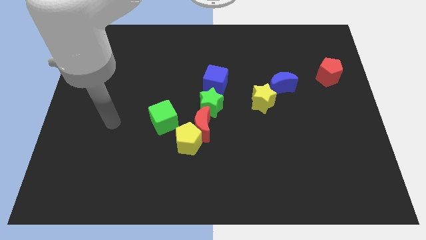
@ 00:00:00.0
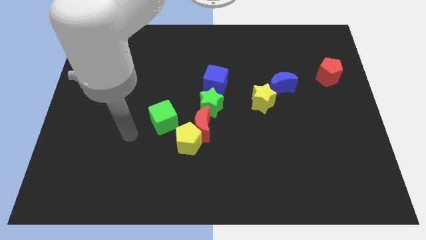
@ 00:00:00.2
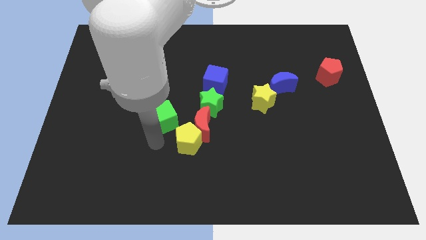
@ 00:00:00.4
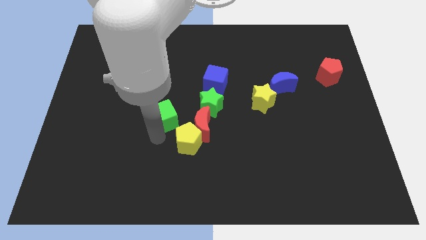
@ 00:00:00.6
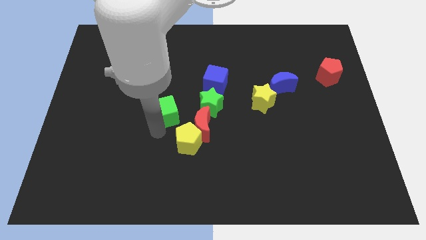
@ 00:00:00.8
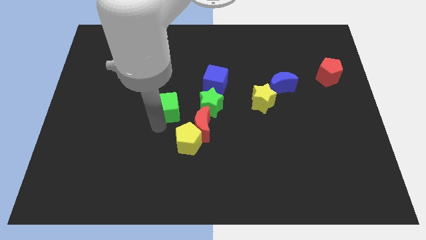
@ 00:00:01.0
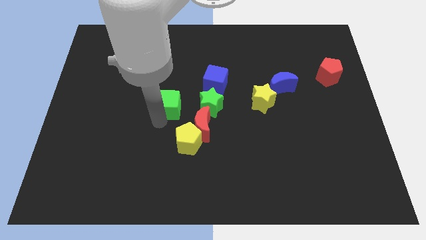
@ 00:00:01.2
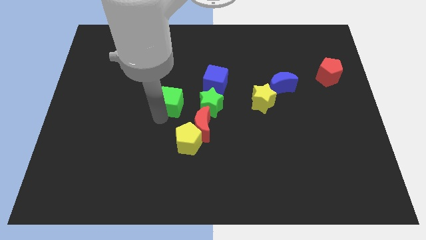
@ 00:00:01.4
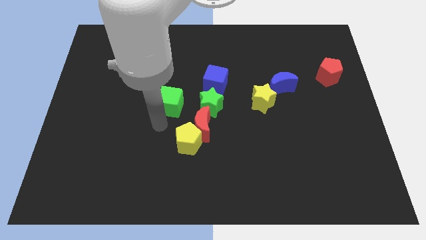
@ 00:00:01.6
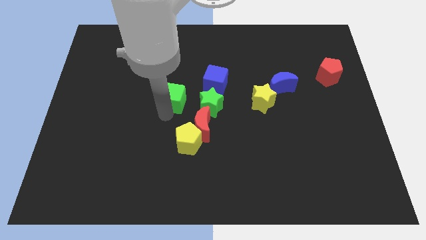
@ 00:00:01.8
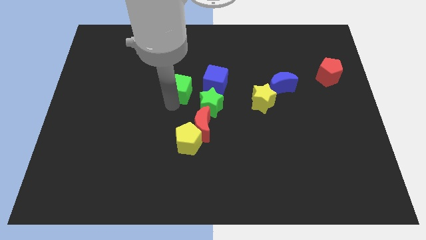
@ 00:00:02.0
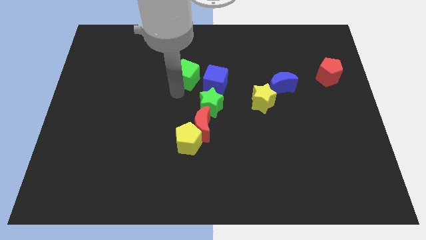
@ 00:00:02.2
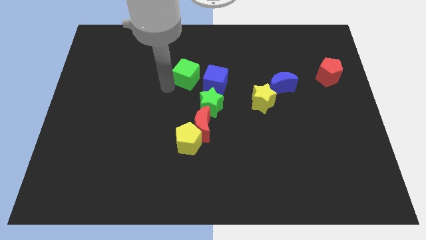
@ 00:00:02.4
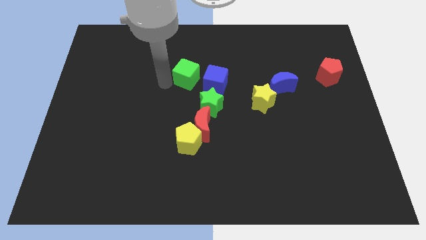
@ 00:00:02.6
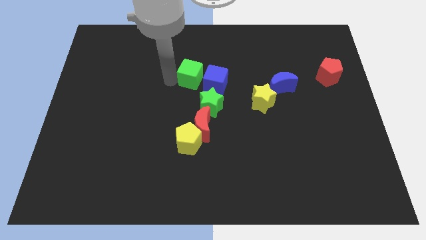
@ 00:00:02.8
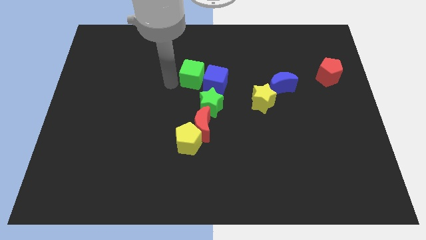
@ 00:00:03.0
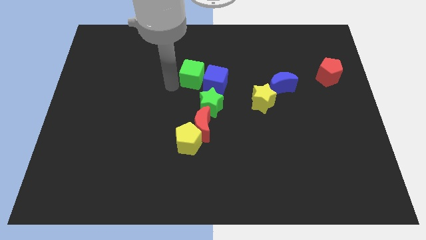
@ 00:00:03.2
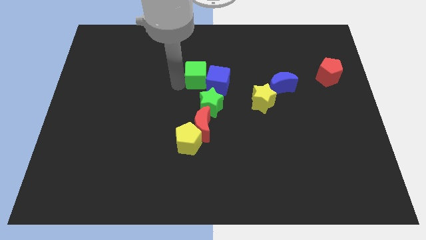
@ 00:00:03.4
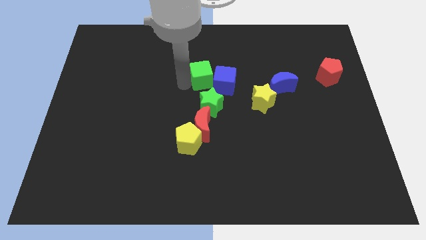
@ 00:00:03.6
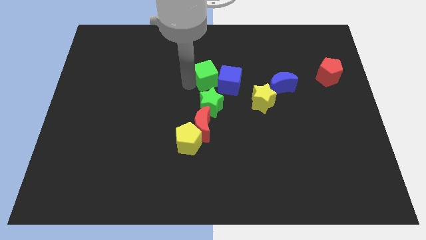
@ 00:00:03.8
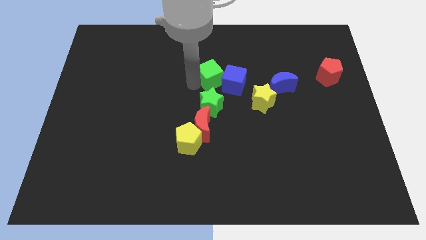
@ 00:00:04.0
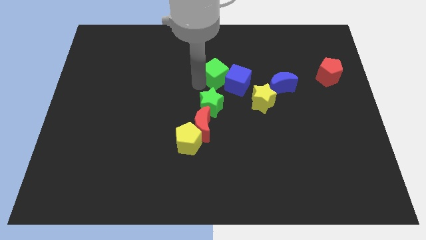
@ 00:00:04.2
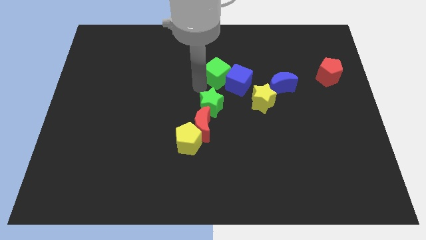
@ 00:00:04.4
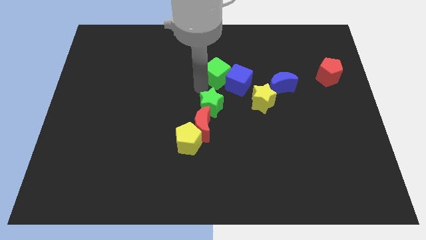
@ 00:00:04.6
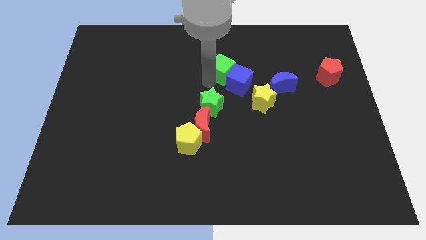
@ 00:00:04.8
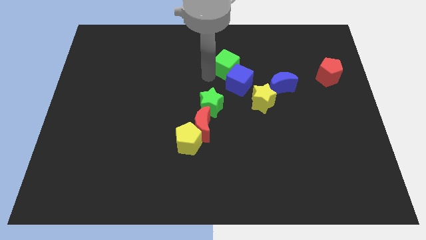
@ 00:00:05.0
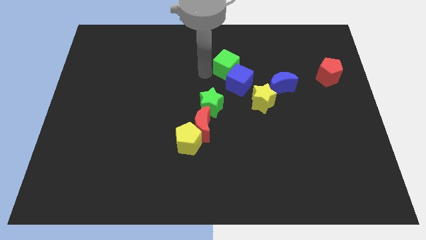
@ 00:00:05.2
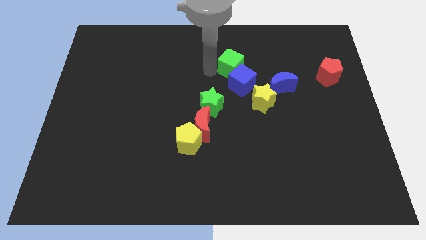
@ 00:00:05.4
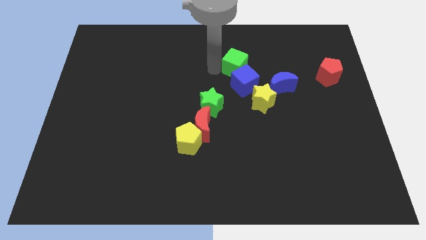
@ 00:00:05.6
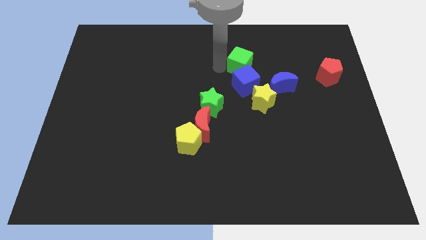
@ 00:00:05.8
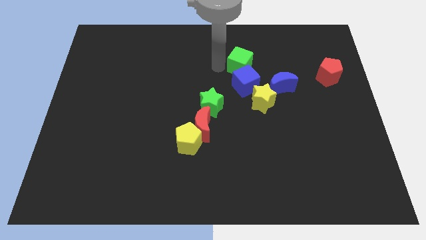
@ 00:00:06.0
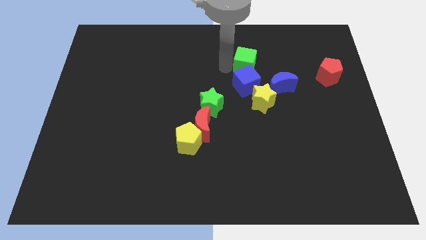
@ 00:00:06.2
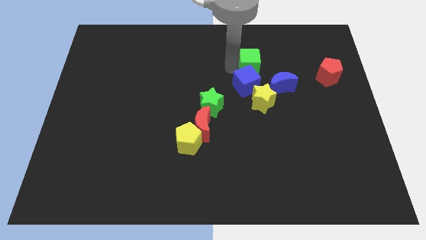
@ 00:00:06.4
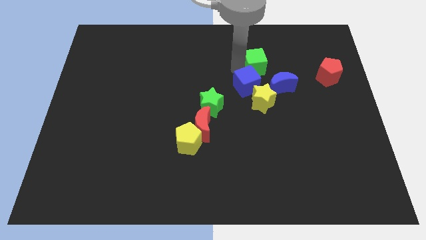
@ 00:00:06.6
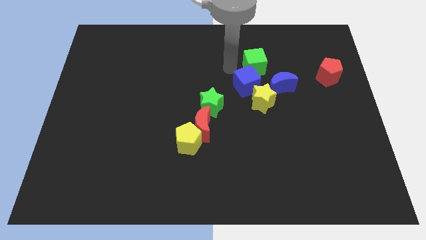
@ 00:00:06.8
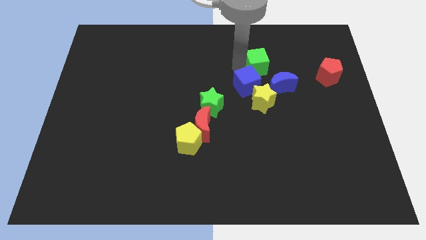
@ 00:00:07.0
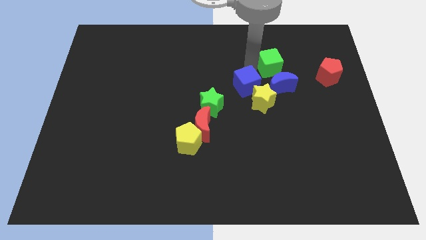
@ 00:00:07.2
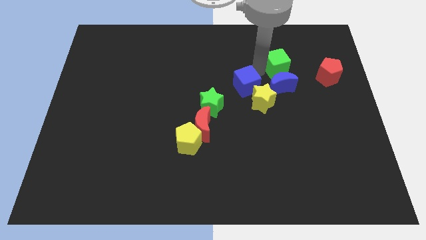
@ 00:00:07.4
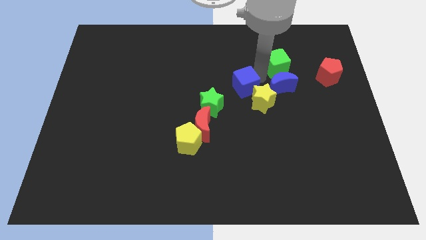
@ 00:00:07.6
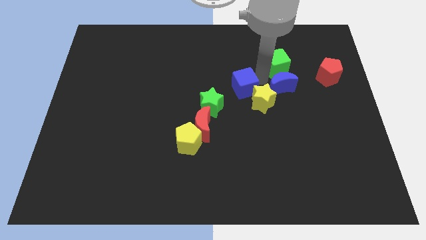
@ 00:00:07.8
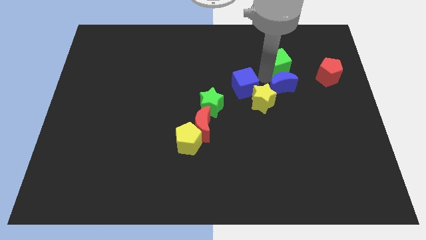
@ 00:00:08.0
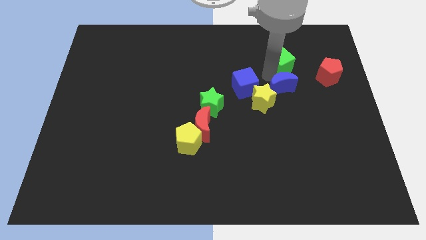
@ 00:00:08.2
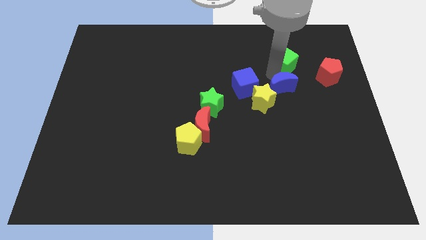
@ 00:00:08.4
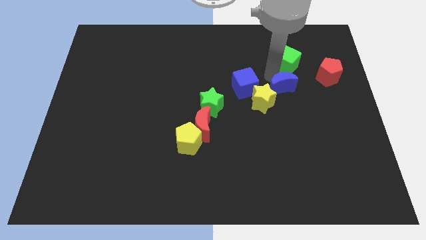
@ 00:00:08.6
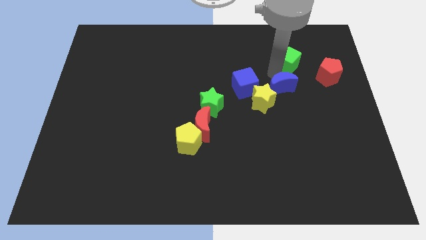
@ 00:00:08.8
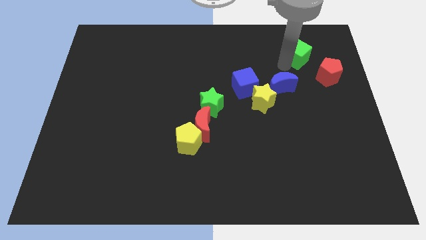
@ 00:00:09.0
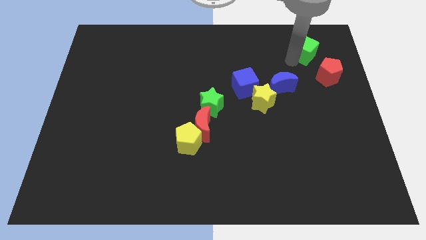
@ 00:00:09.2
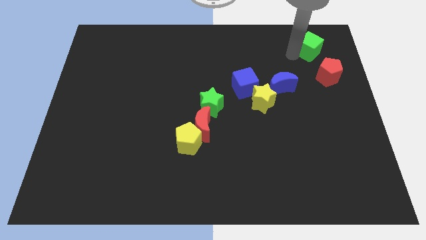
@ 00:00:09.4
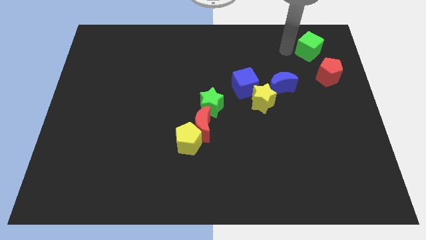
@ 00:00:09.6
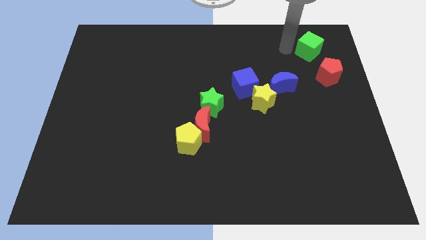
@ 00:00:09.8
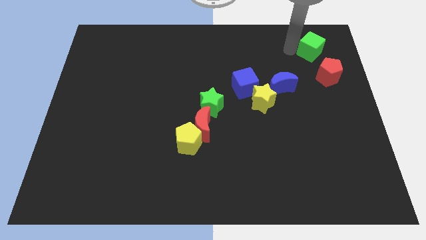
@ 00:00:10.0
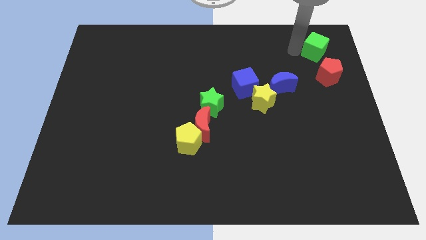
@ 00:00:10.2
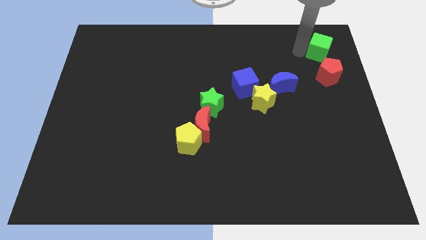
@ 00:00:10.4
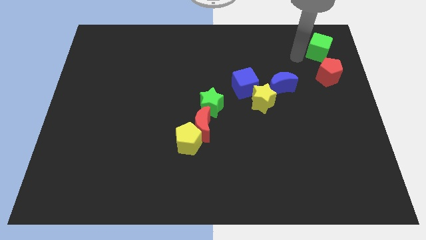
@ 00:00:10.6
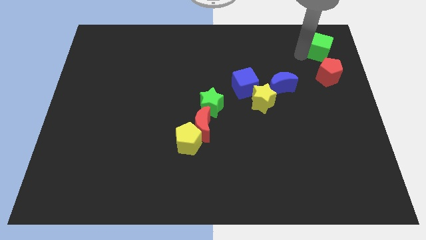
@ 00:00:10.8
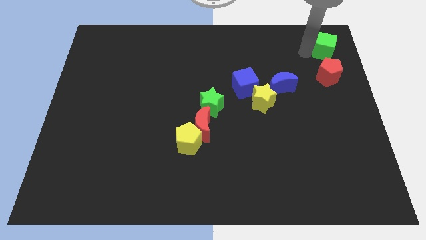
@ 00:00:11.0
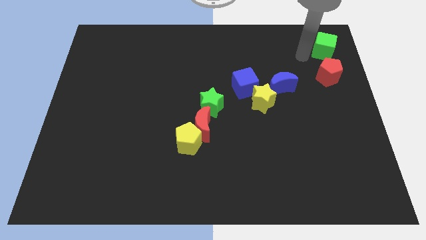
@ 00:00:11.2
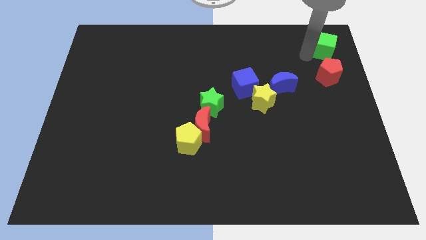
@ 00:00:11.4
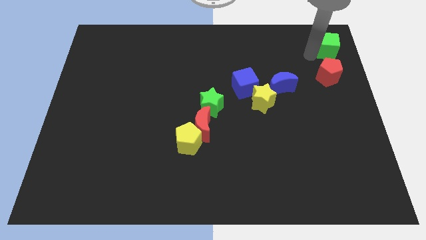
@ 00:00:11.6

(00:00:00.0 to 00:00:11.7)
push the green cube to the top right

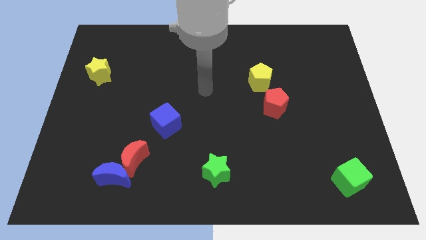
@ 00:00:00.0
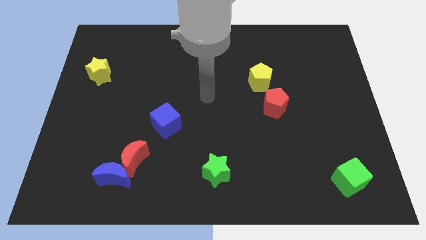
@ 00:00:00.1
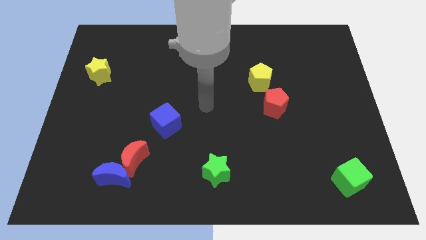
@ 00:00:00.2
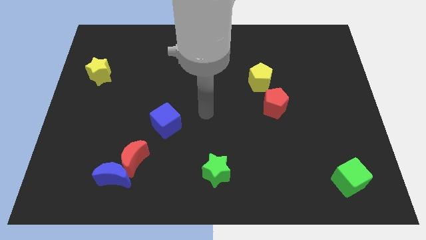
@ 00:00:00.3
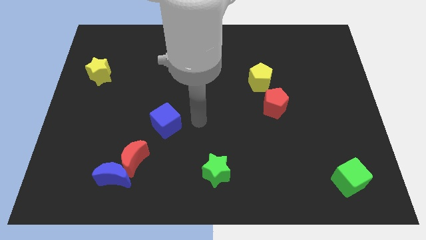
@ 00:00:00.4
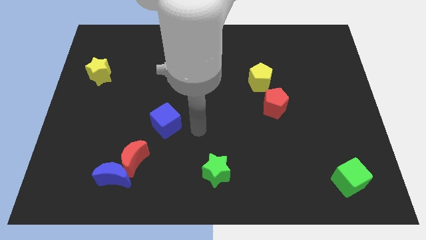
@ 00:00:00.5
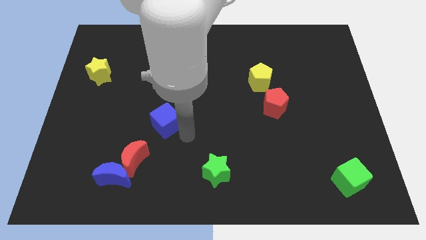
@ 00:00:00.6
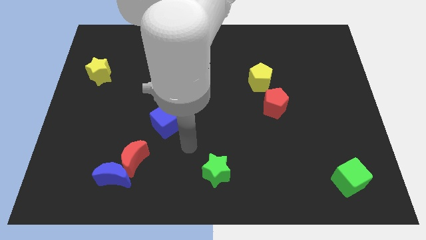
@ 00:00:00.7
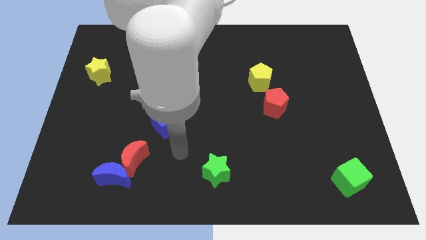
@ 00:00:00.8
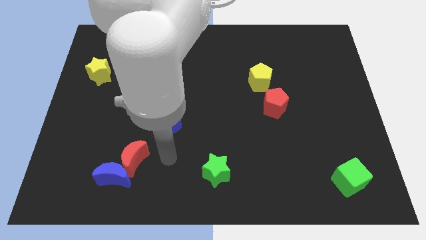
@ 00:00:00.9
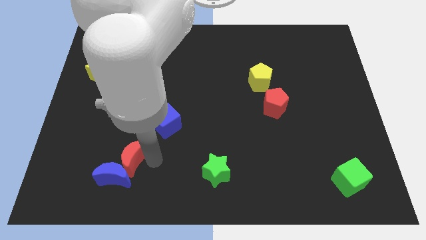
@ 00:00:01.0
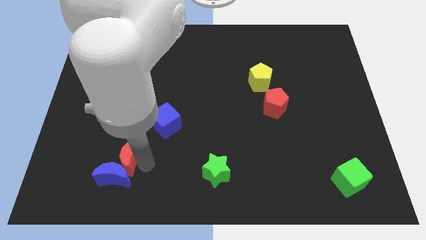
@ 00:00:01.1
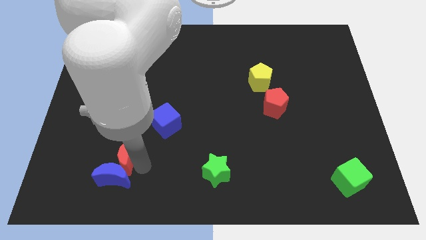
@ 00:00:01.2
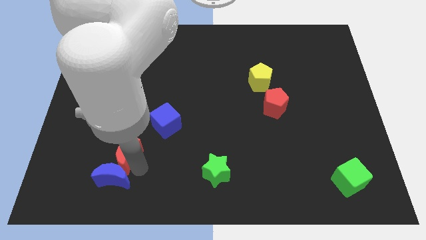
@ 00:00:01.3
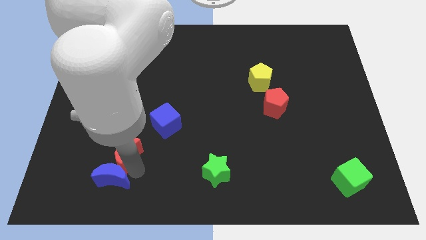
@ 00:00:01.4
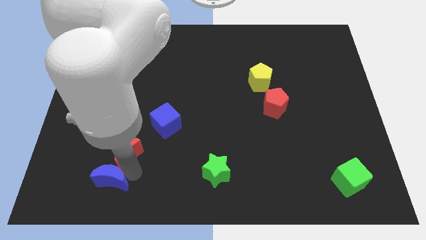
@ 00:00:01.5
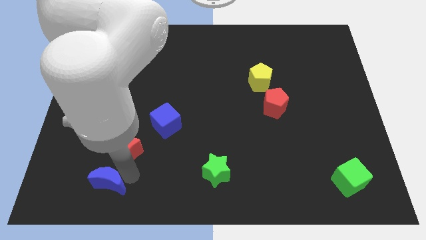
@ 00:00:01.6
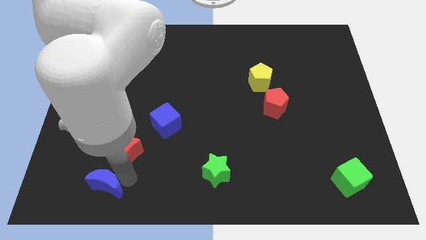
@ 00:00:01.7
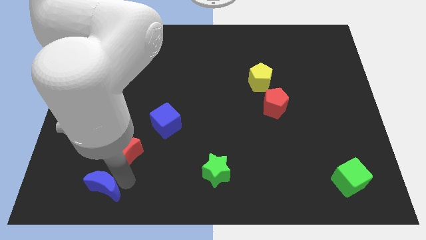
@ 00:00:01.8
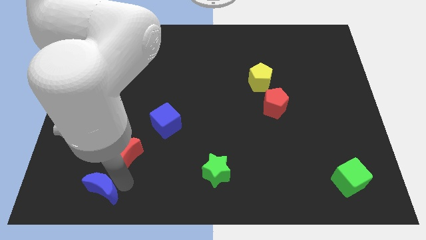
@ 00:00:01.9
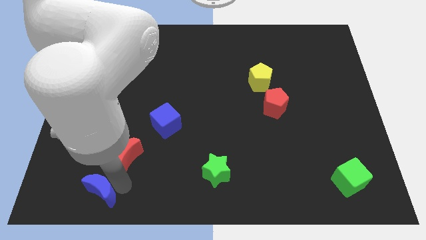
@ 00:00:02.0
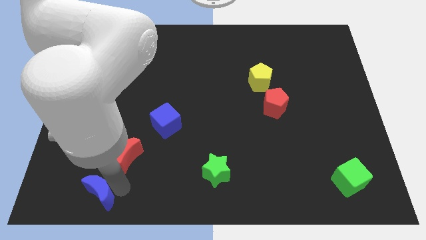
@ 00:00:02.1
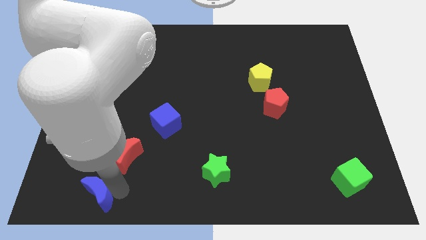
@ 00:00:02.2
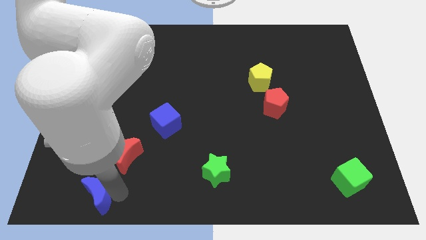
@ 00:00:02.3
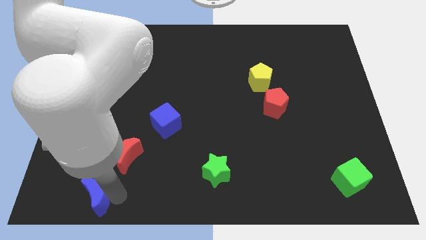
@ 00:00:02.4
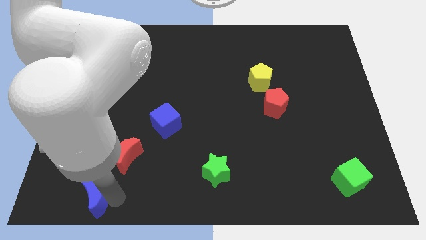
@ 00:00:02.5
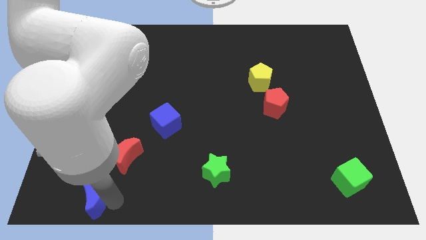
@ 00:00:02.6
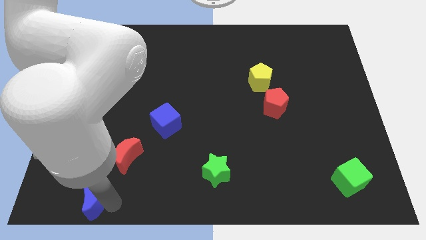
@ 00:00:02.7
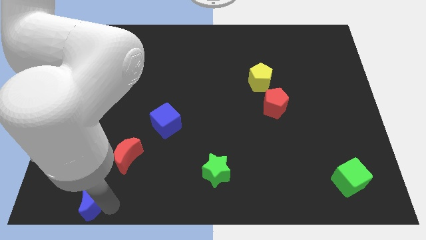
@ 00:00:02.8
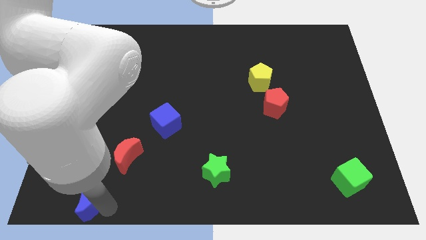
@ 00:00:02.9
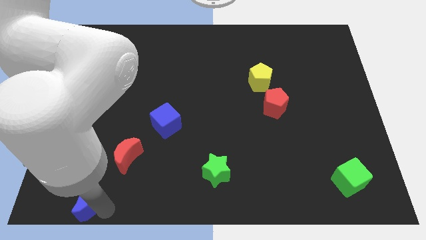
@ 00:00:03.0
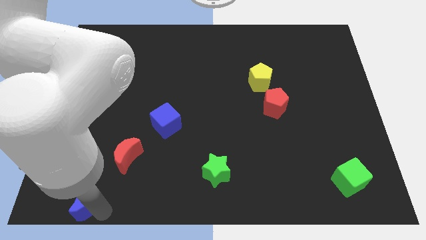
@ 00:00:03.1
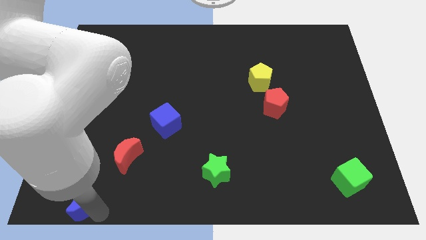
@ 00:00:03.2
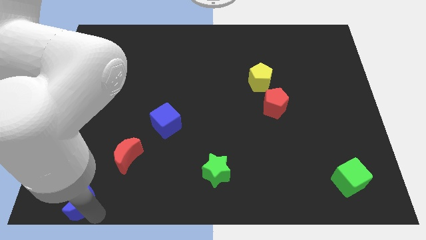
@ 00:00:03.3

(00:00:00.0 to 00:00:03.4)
put the blue moon to the bottom left corner
